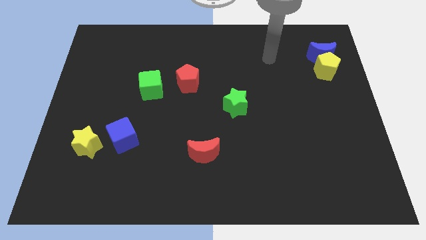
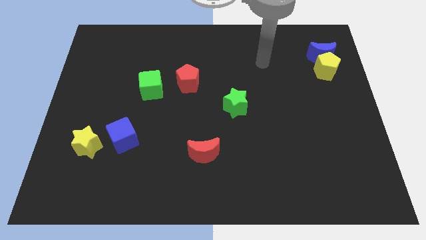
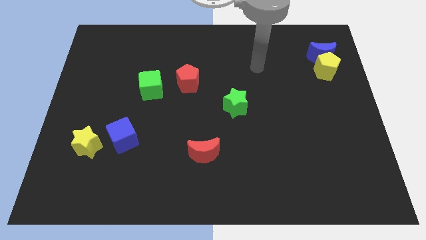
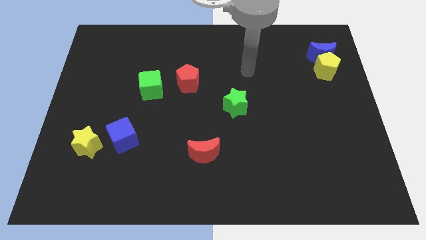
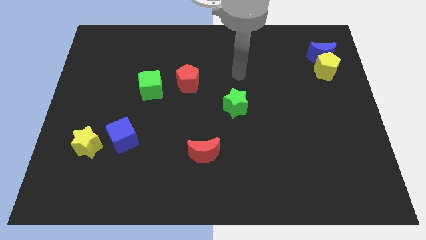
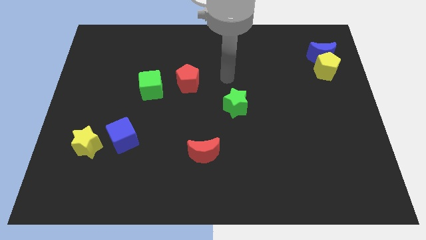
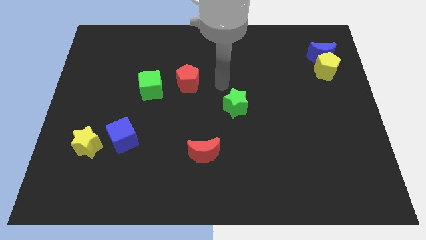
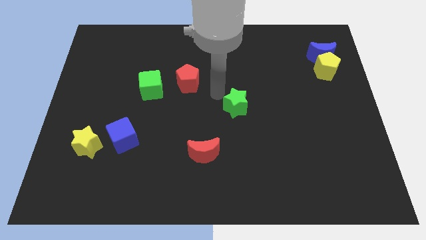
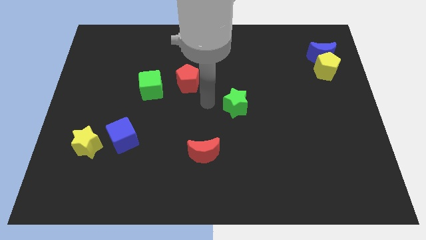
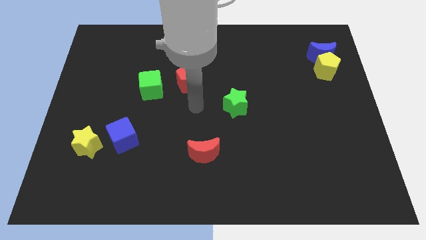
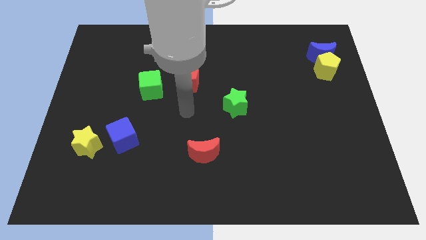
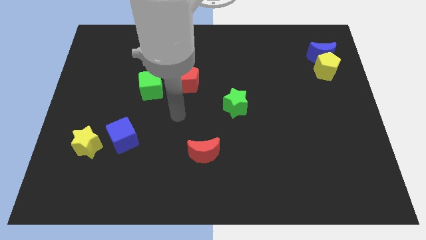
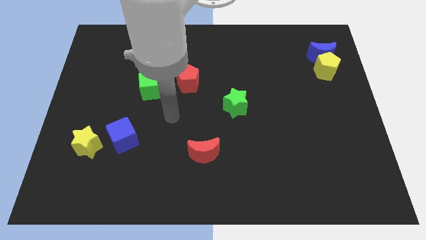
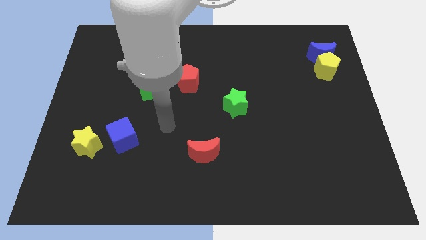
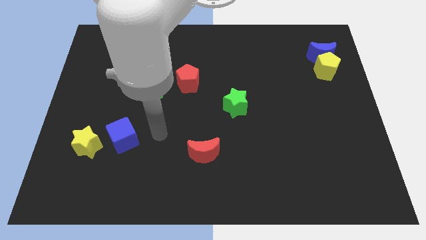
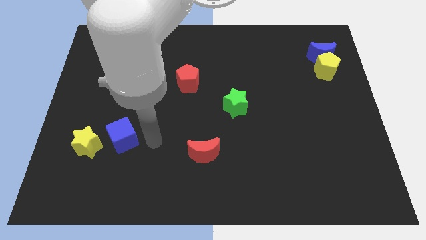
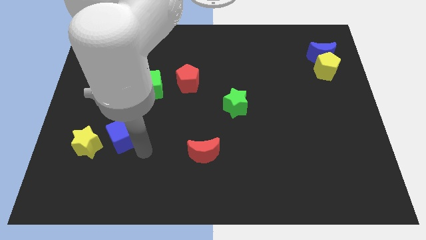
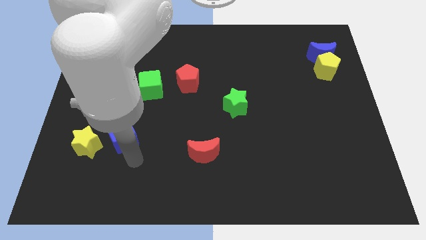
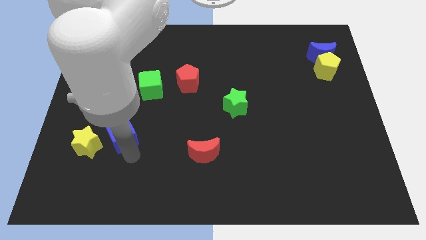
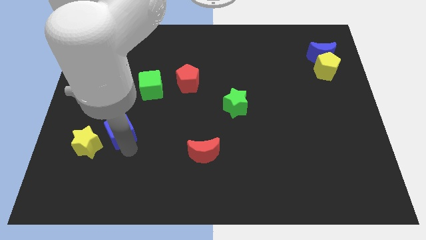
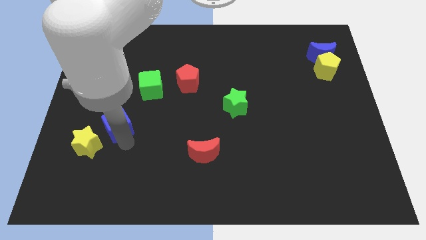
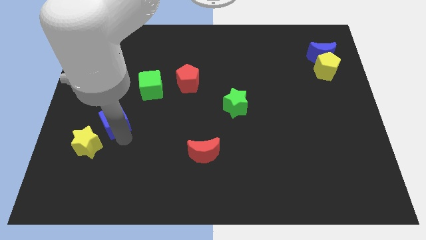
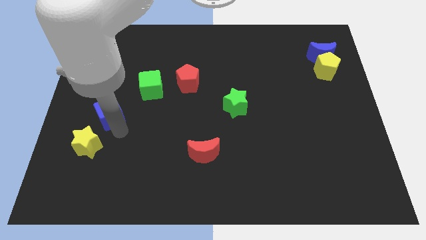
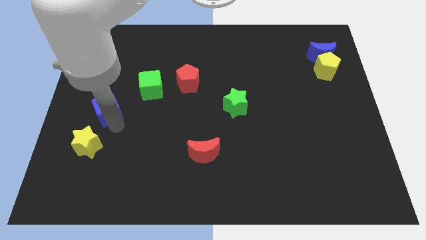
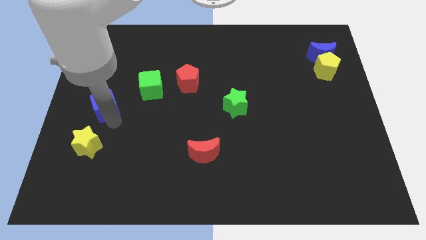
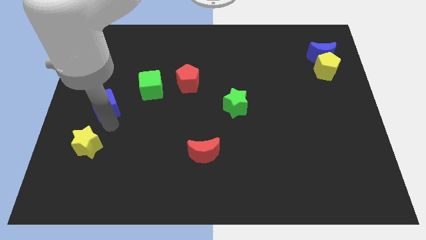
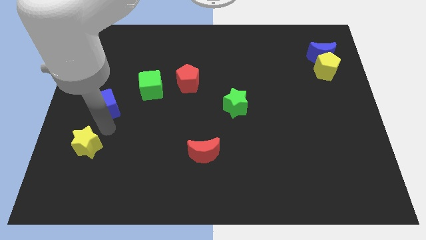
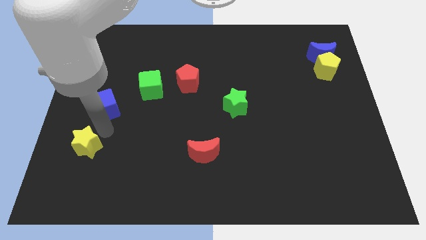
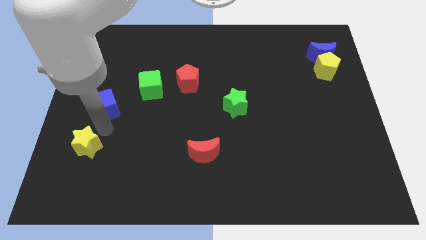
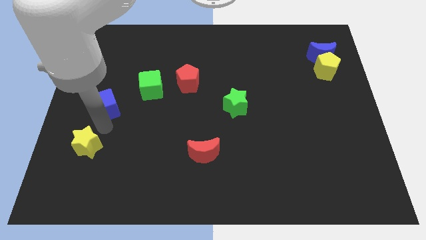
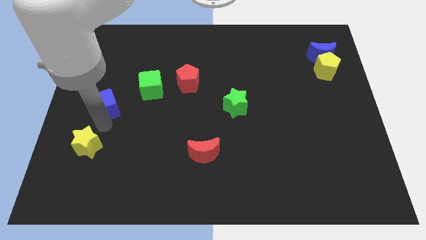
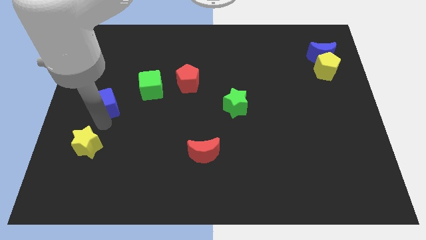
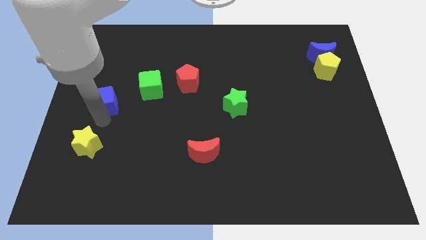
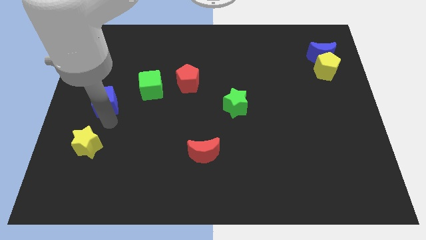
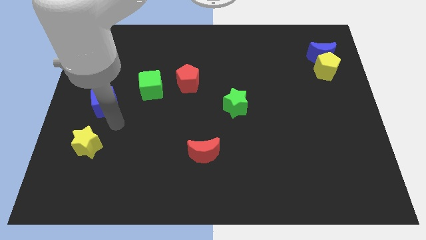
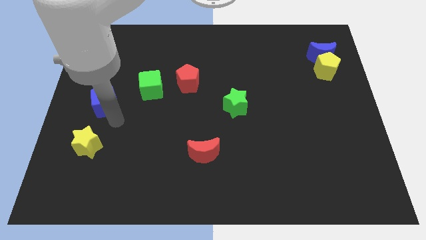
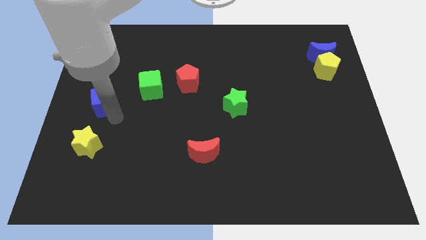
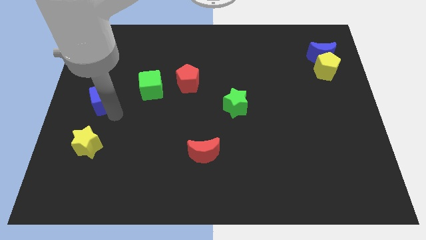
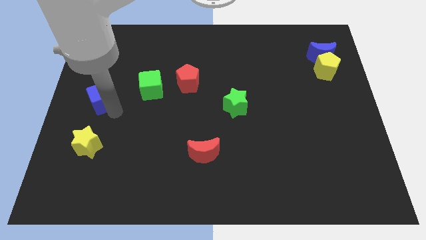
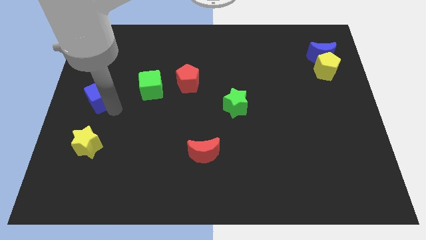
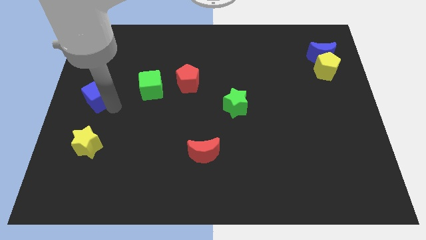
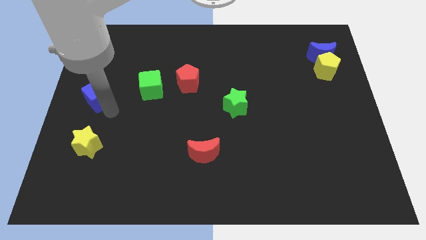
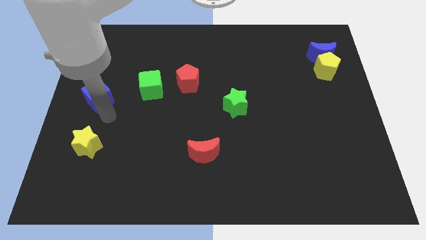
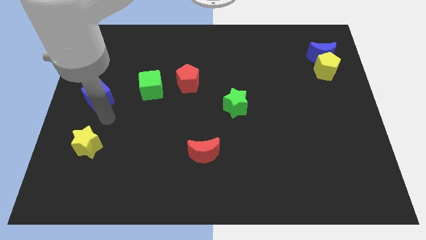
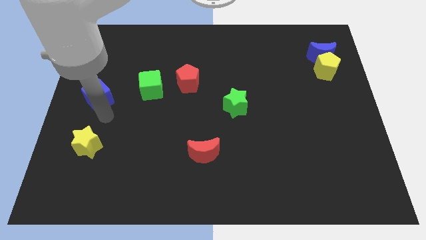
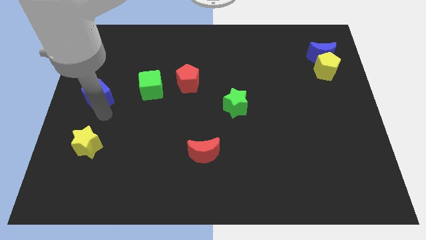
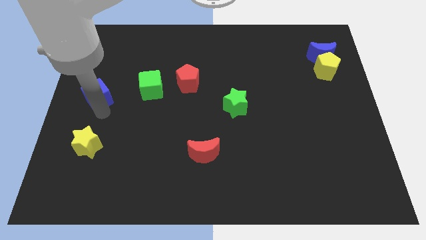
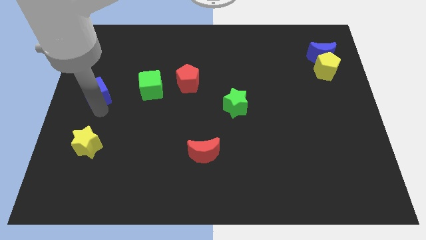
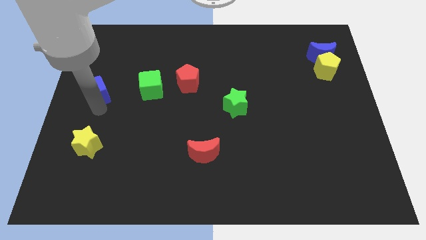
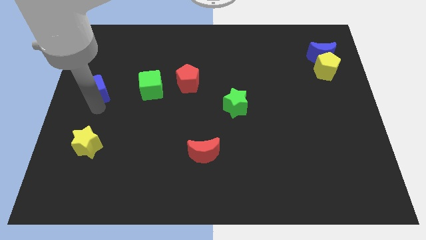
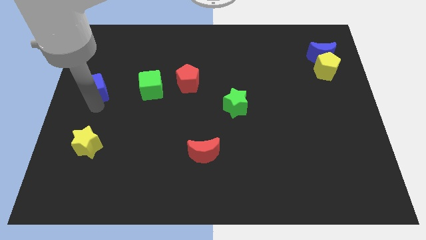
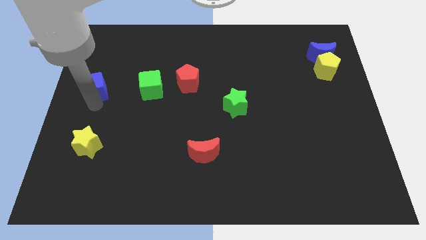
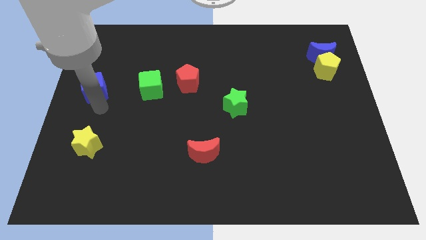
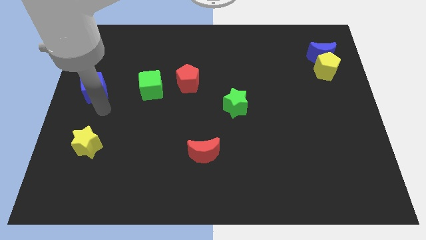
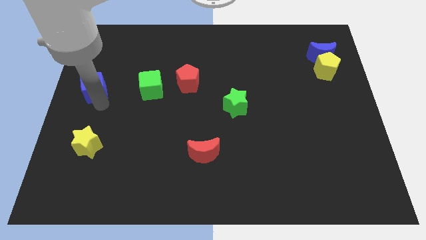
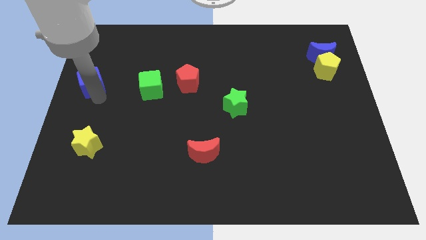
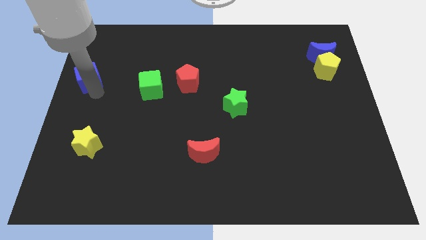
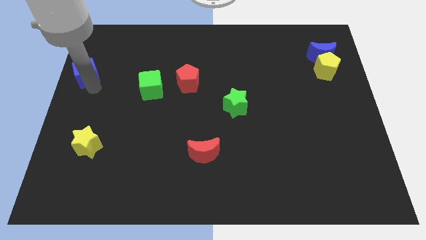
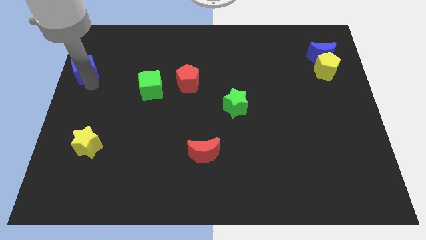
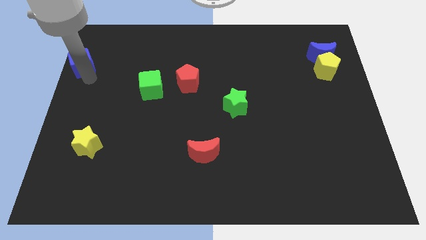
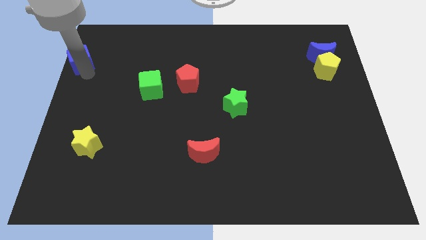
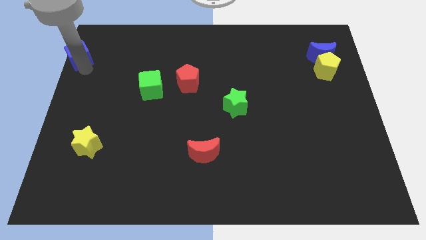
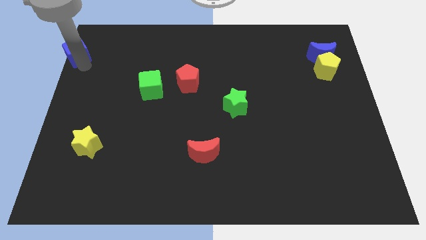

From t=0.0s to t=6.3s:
put the blue cube to the top left corner

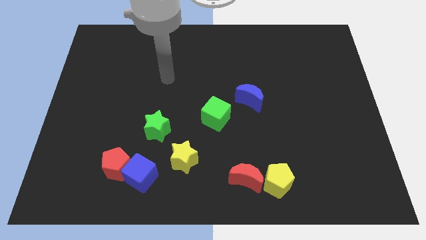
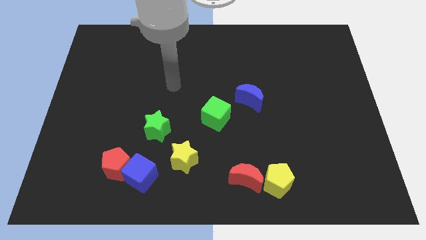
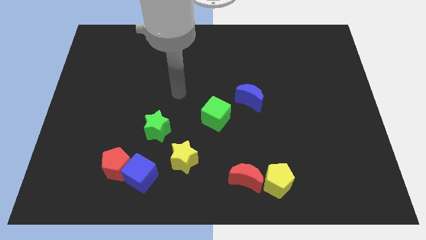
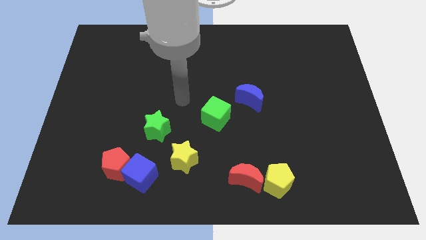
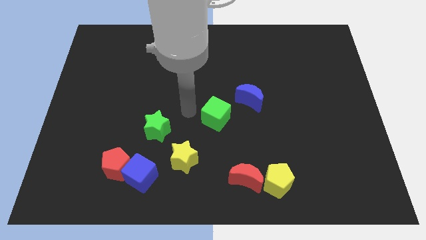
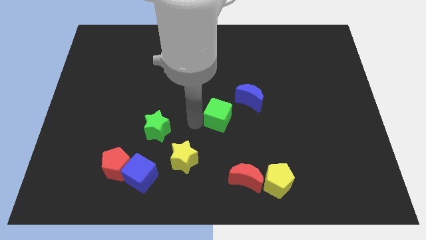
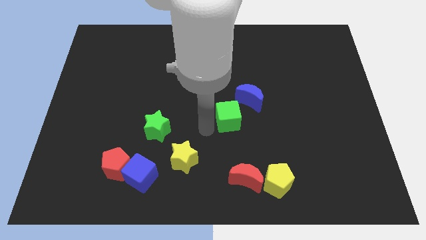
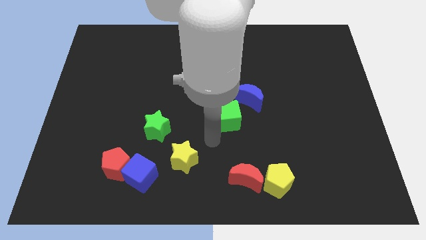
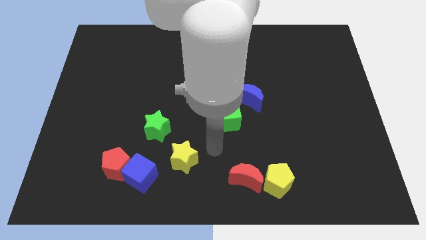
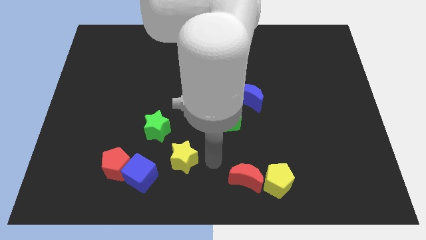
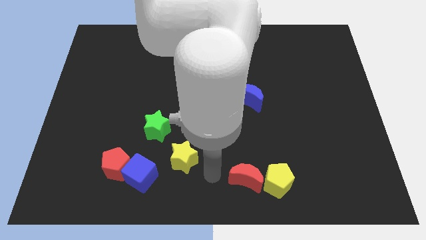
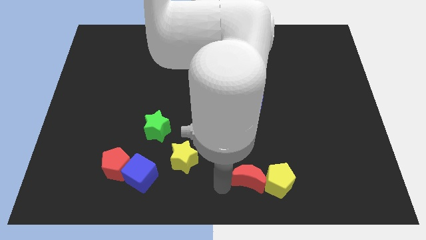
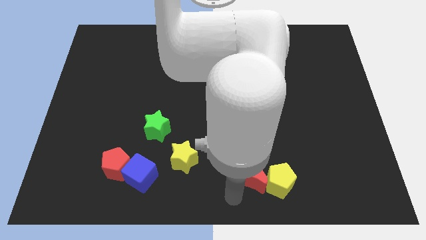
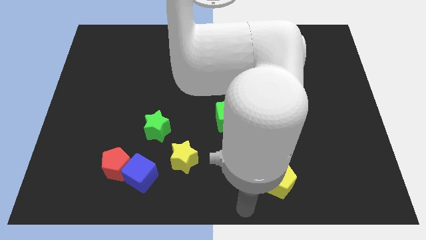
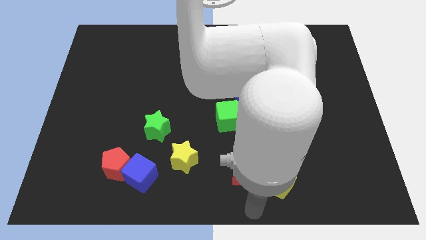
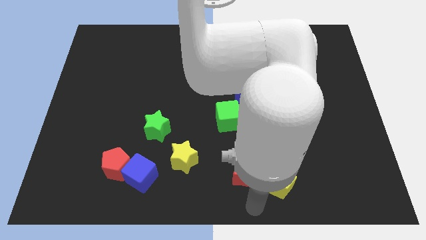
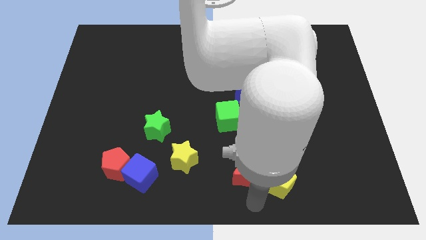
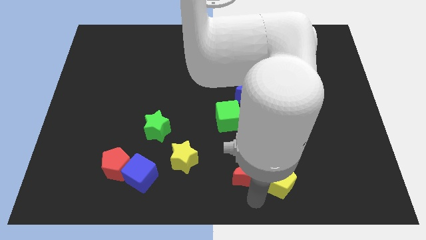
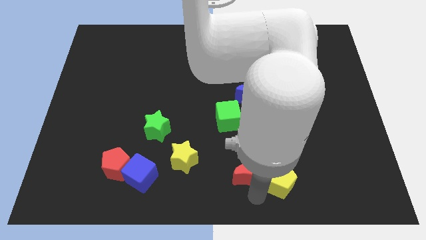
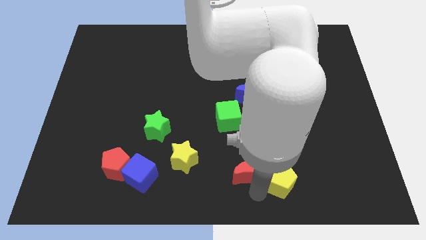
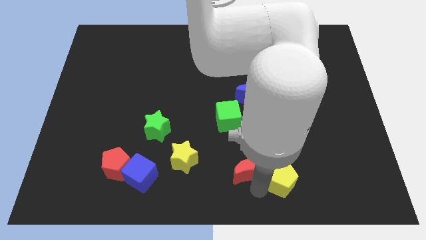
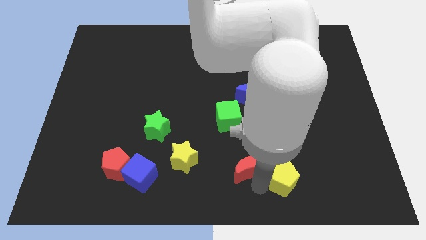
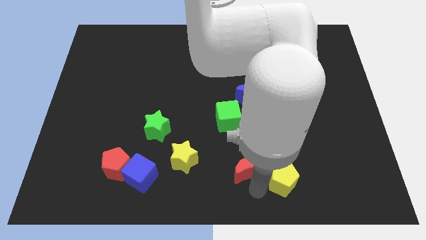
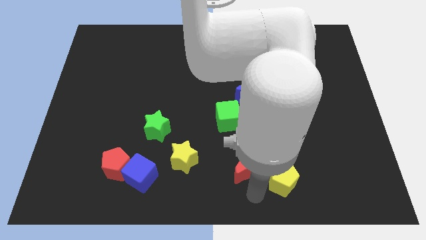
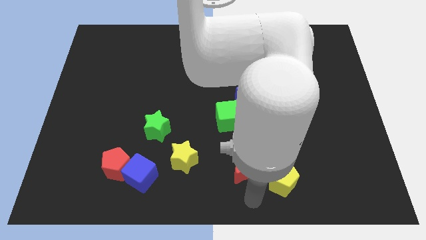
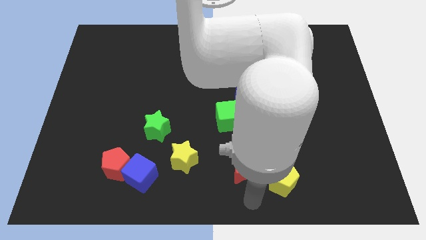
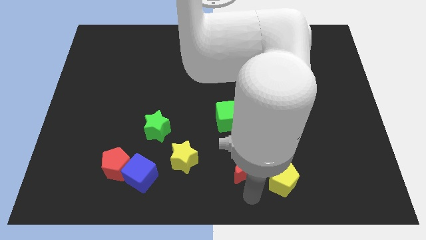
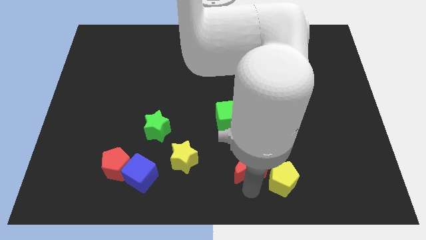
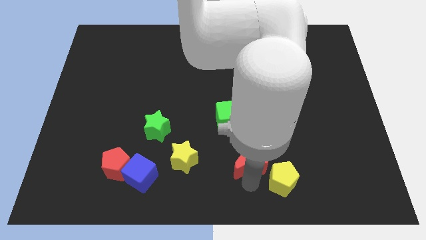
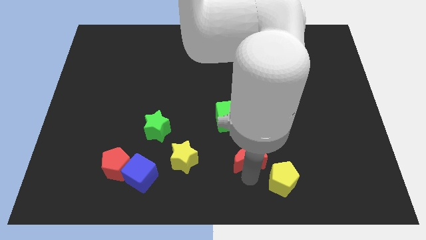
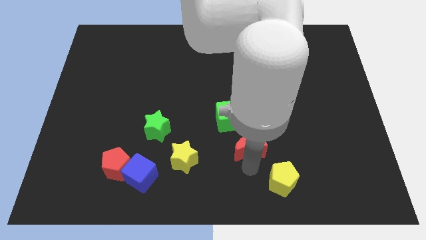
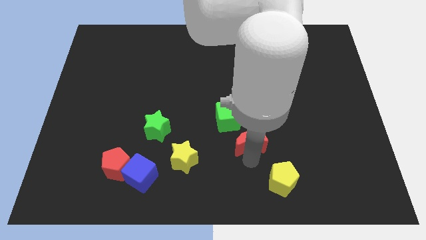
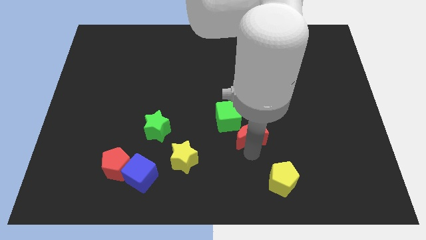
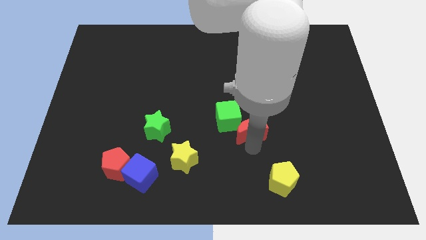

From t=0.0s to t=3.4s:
put the red moon to the middle of the board
